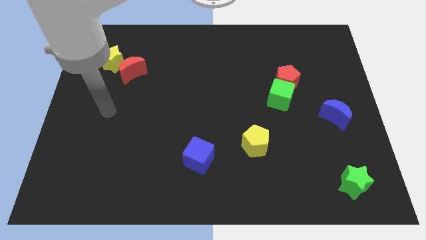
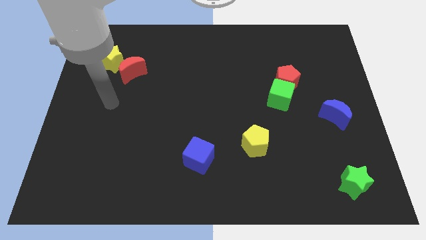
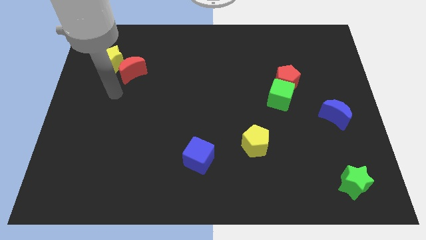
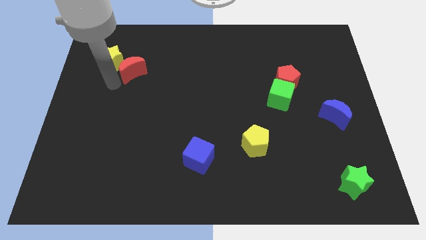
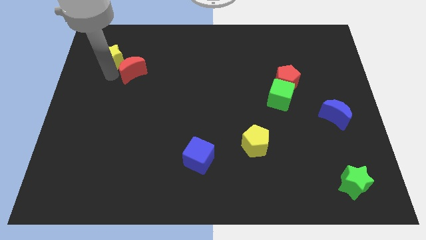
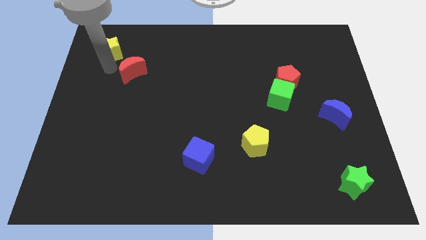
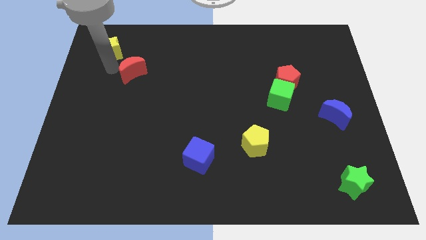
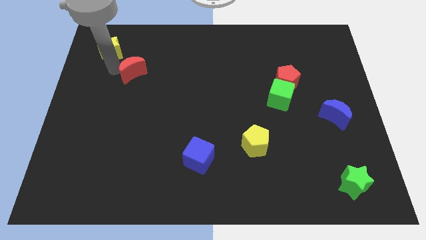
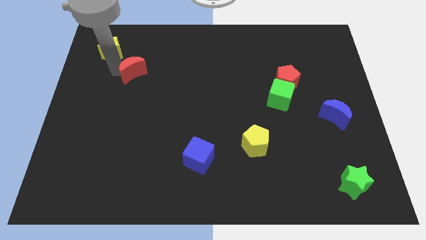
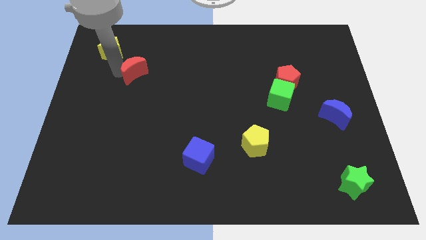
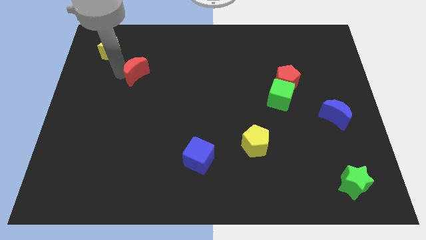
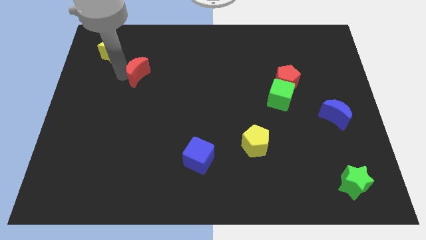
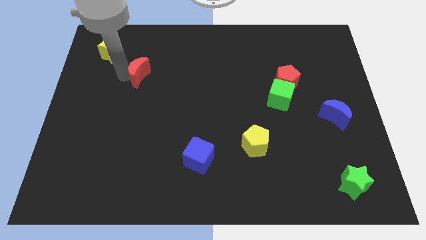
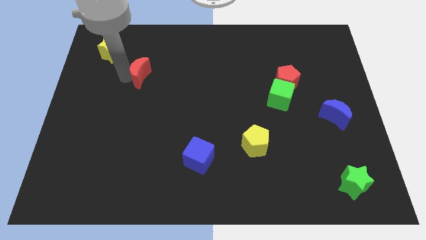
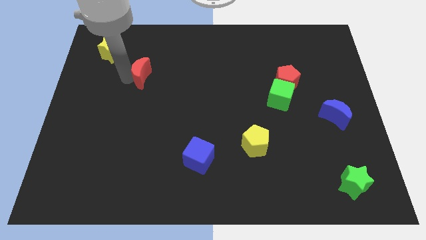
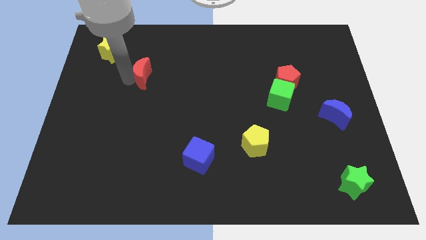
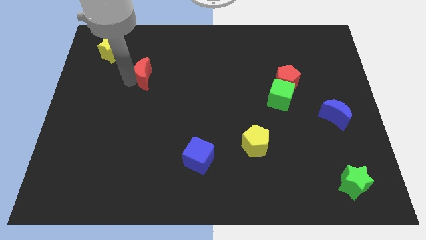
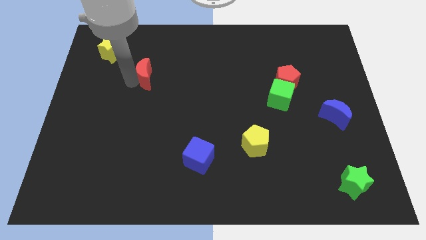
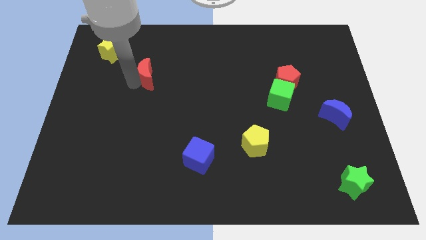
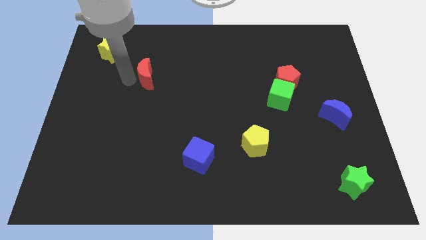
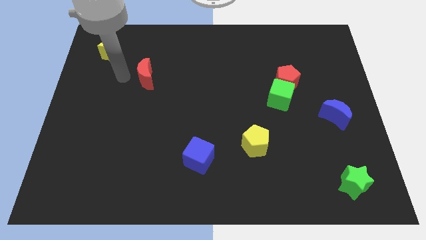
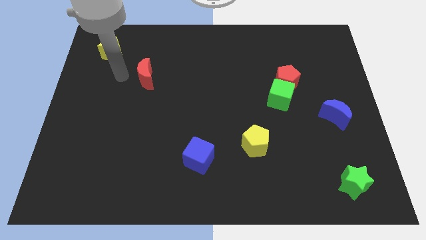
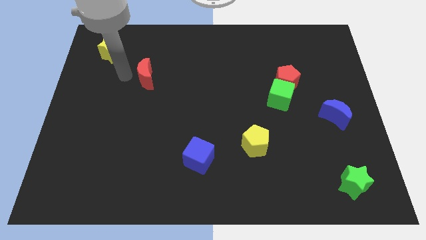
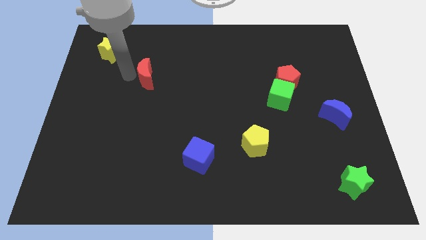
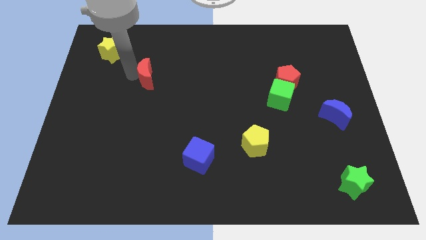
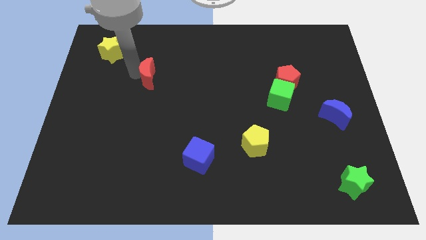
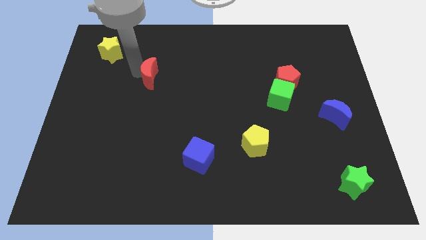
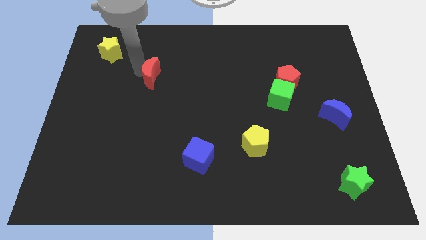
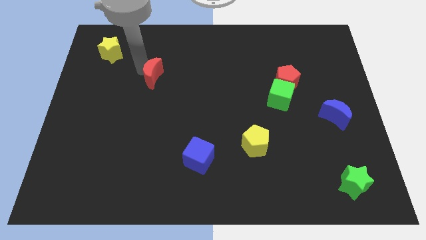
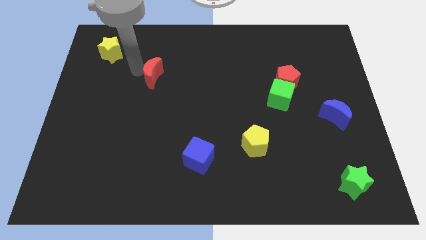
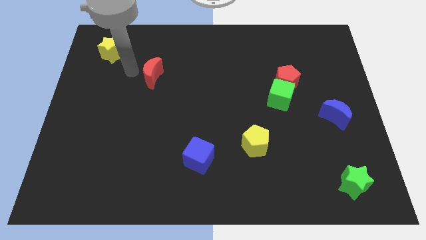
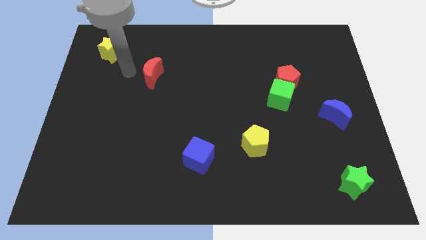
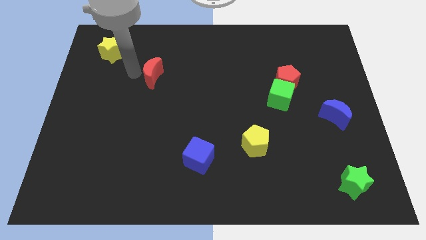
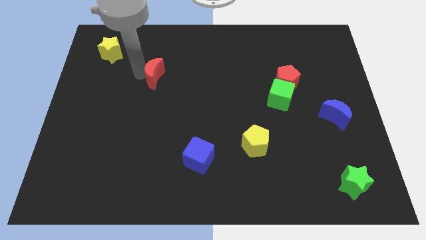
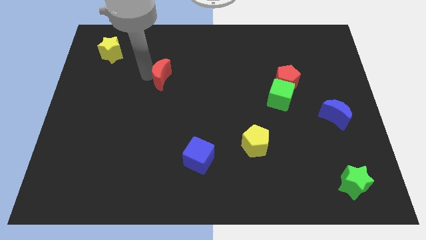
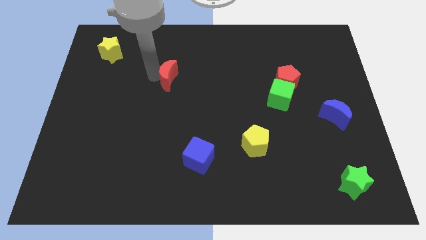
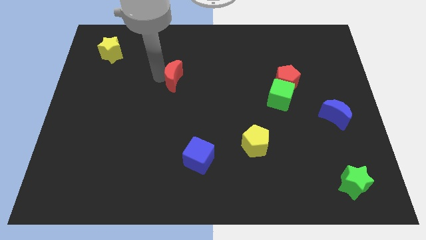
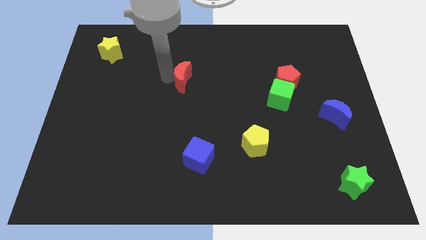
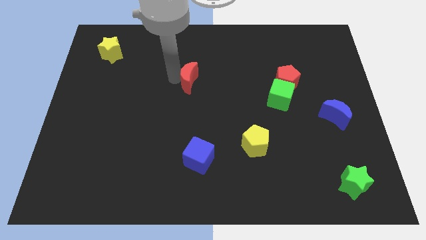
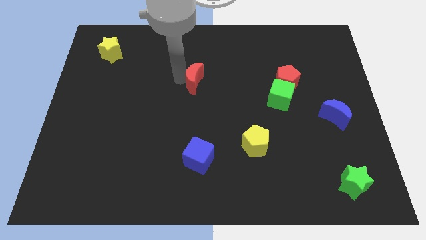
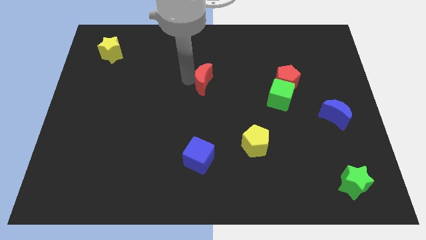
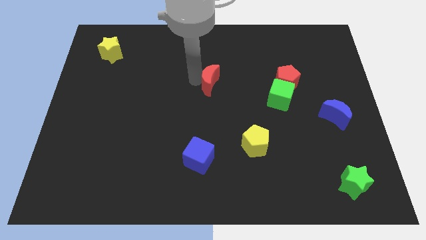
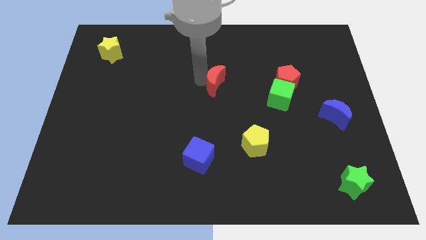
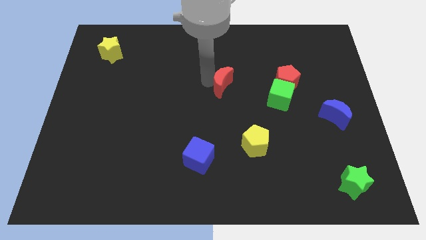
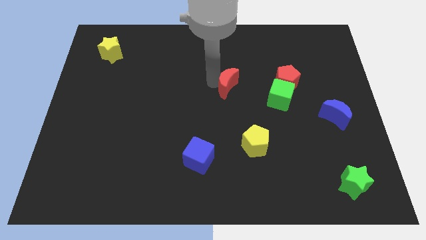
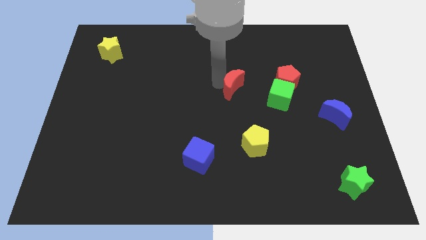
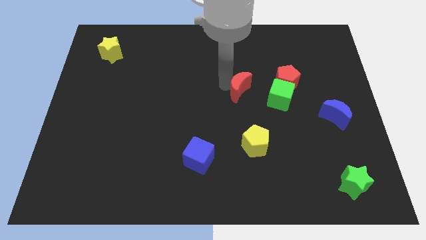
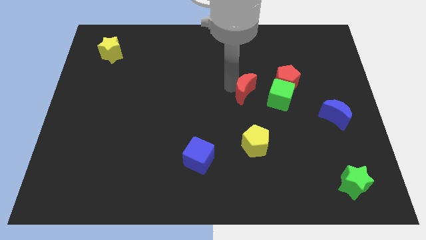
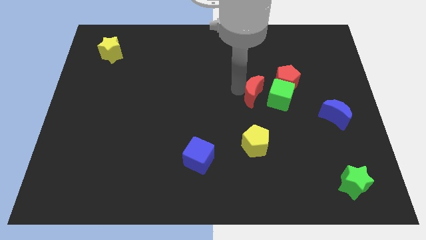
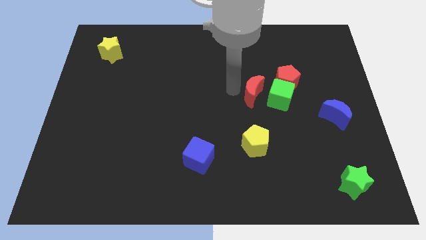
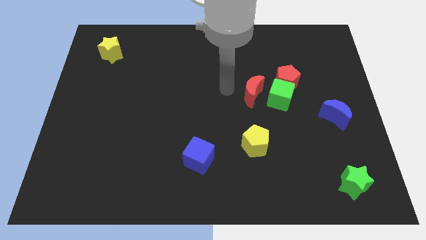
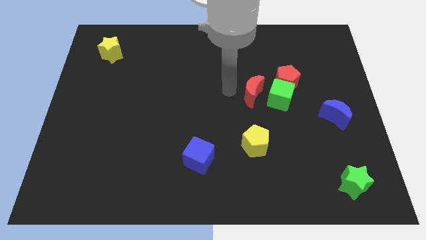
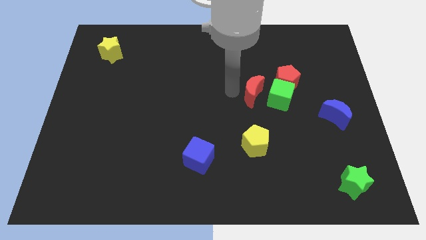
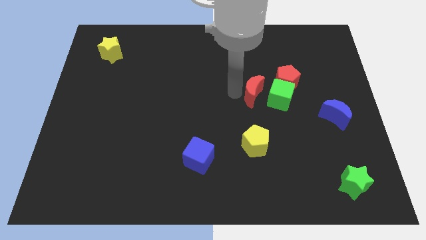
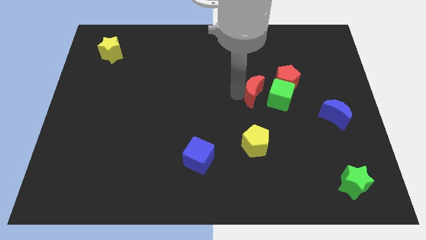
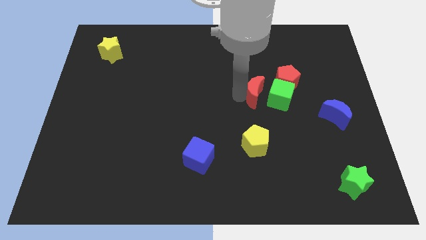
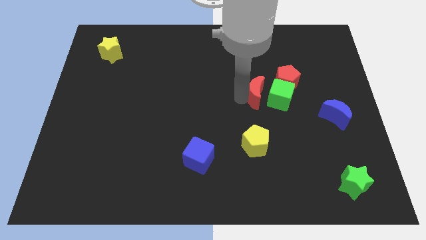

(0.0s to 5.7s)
put the red moon next to the green cube

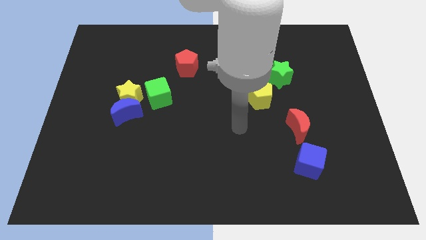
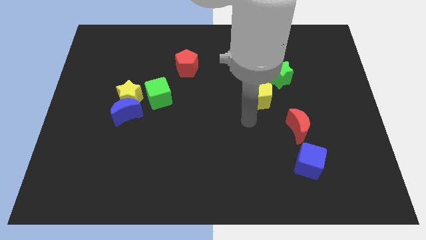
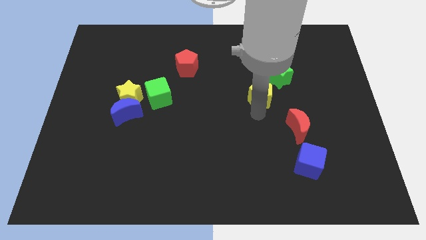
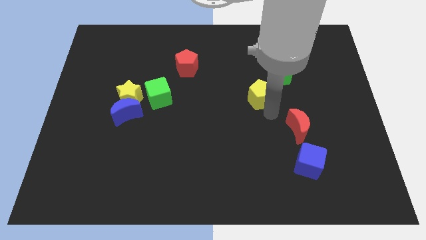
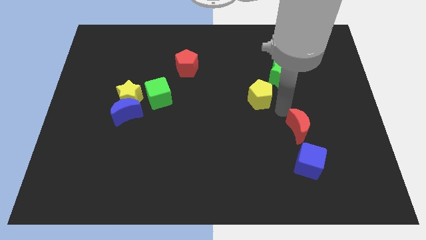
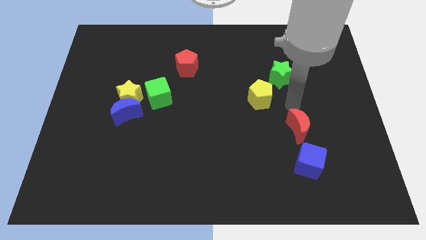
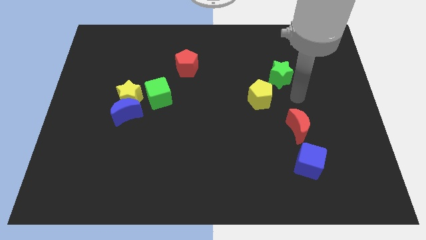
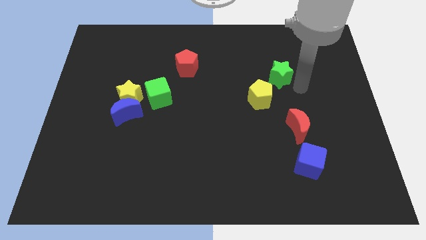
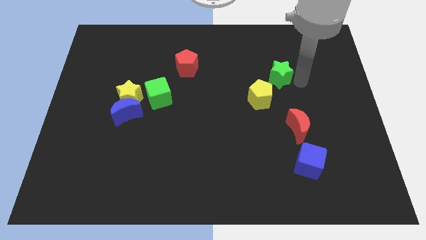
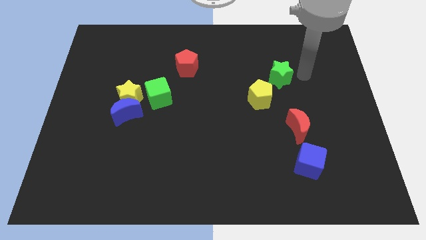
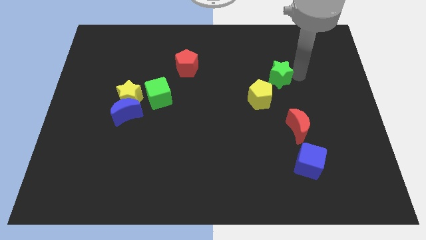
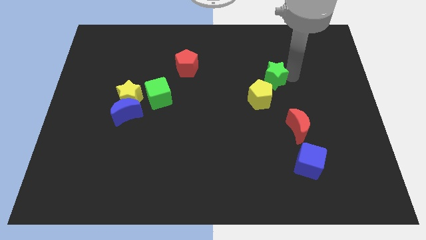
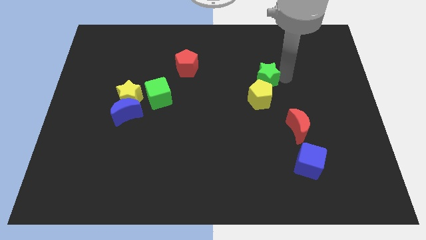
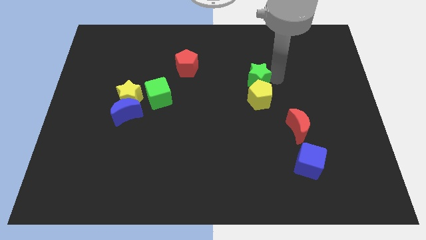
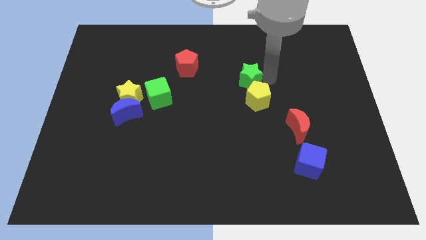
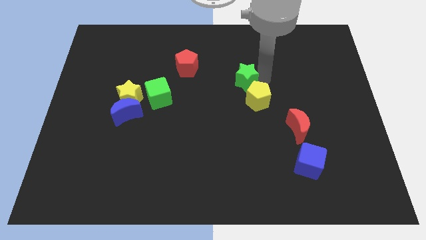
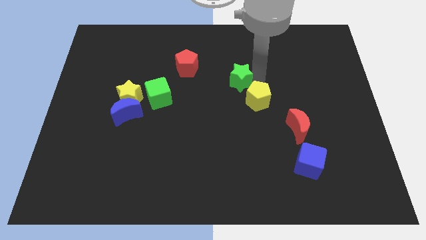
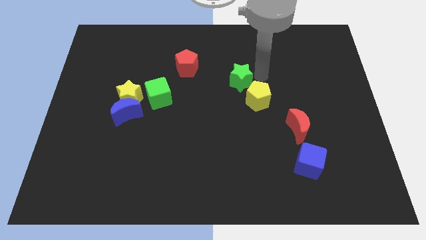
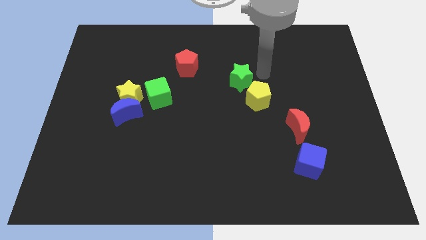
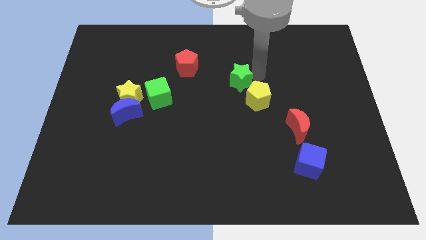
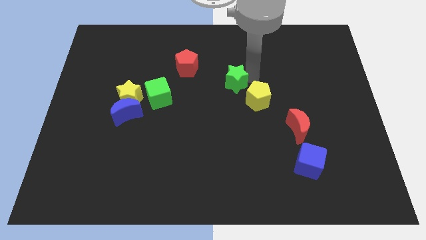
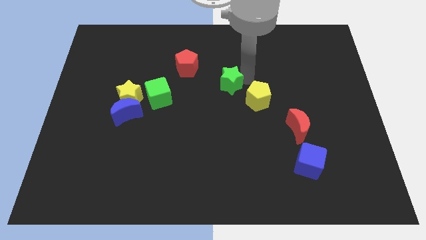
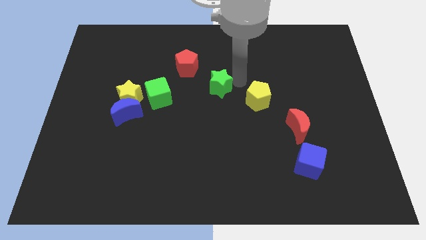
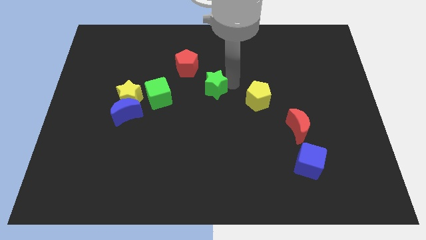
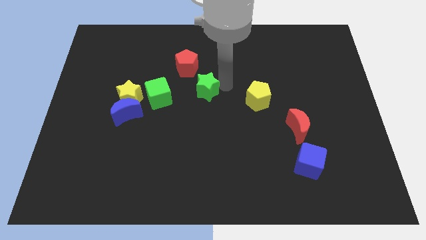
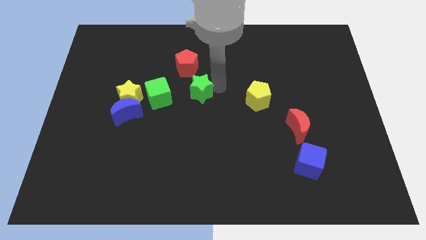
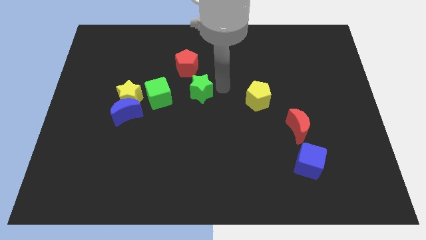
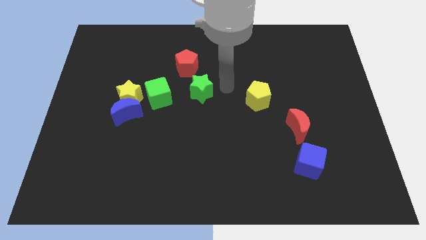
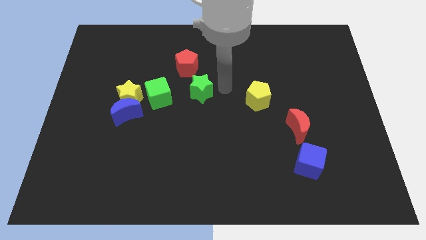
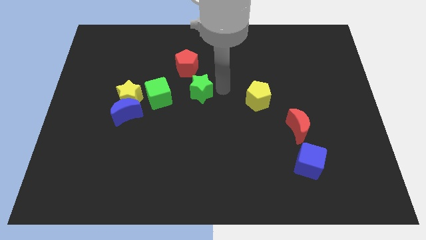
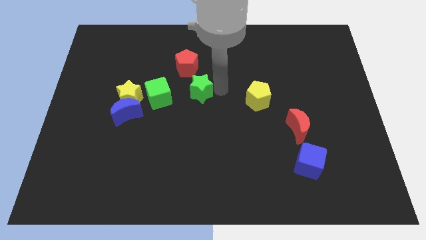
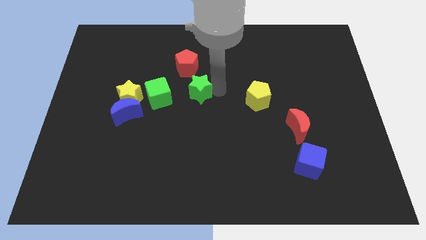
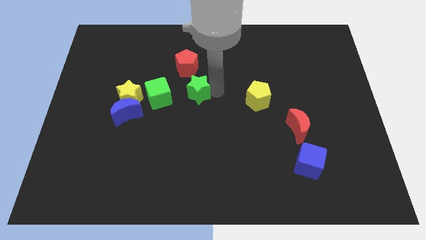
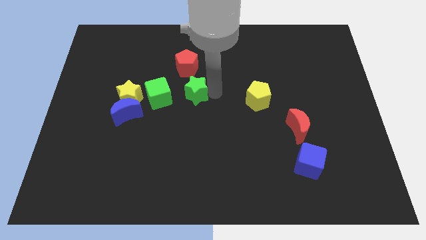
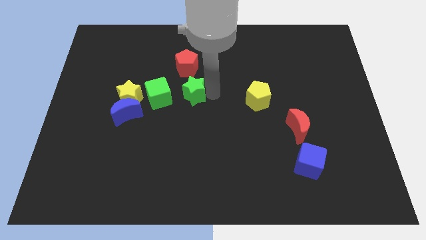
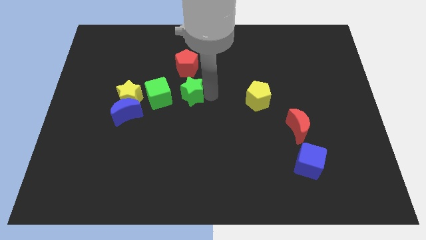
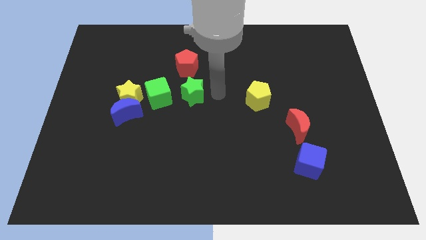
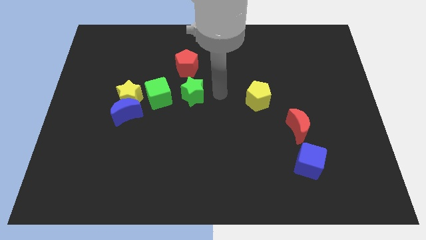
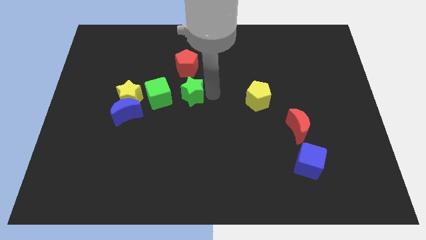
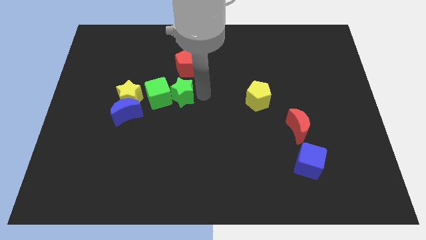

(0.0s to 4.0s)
push the green star to the green cube
